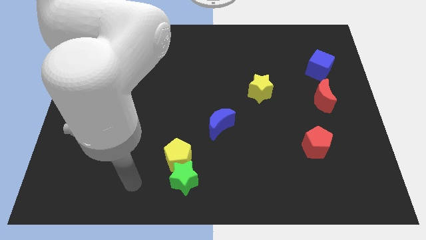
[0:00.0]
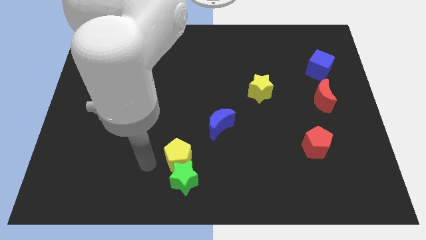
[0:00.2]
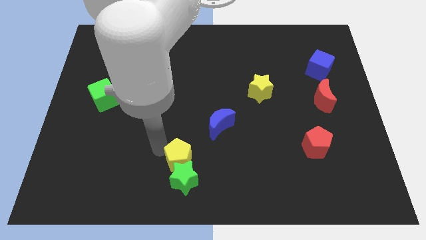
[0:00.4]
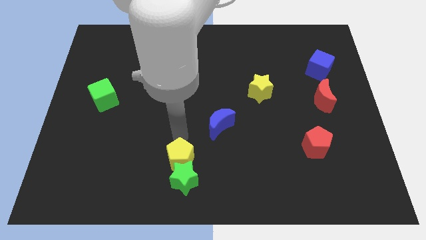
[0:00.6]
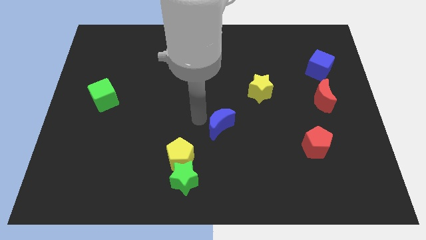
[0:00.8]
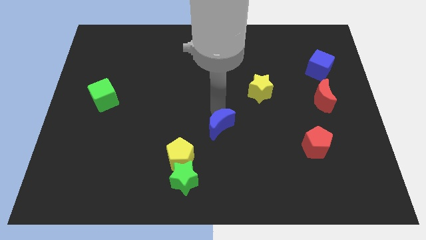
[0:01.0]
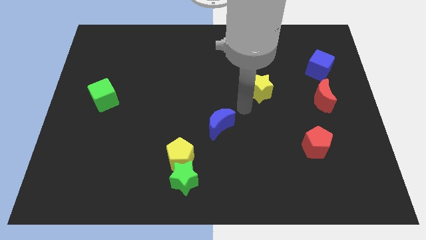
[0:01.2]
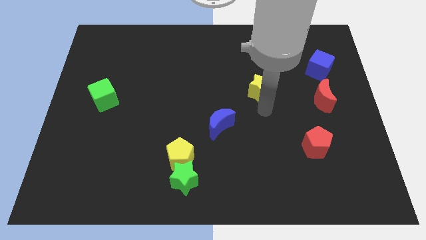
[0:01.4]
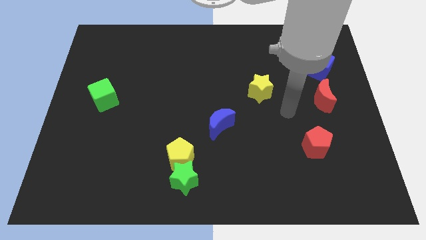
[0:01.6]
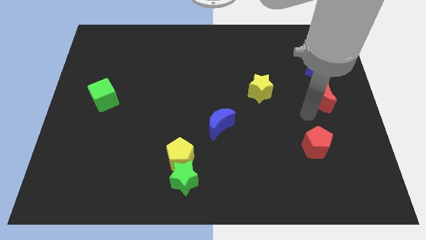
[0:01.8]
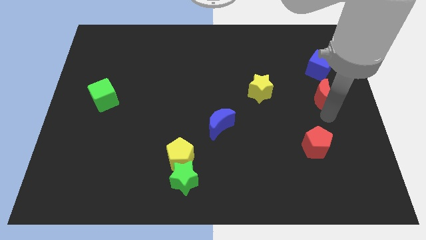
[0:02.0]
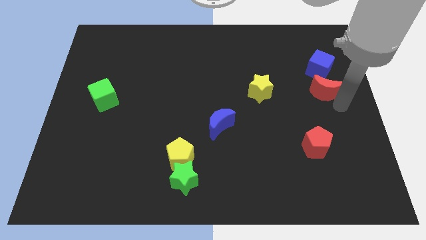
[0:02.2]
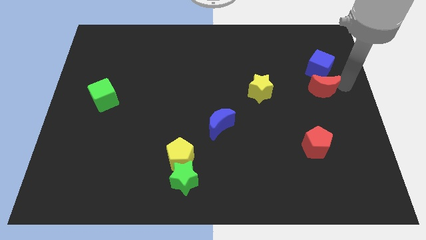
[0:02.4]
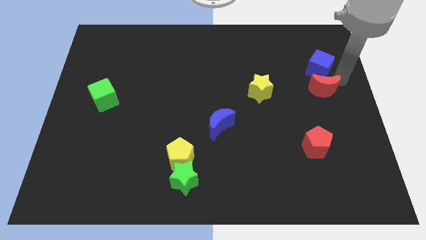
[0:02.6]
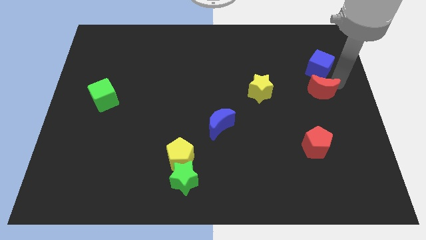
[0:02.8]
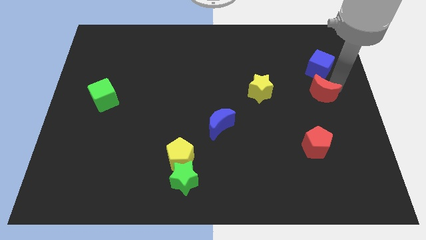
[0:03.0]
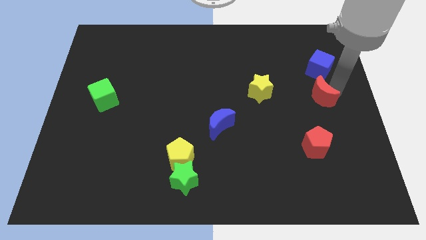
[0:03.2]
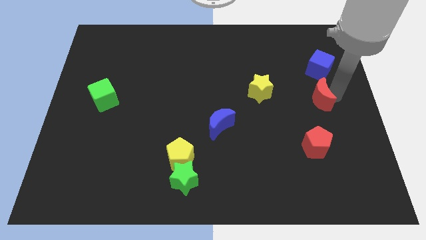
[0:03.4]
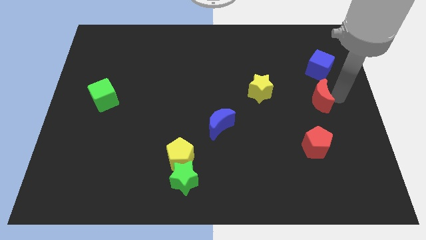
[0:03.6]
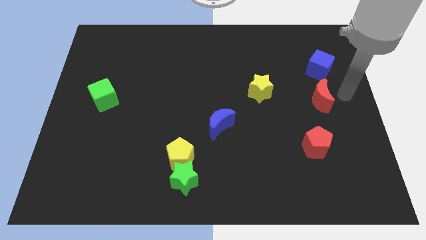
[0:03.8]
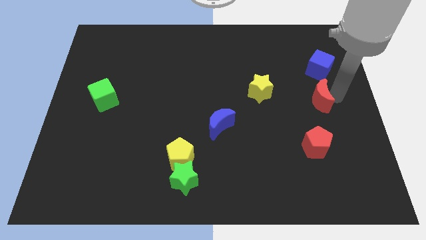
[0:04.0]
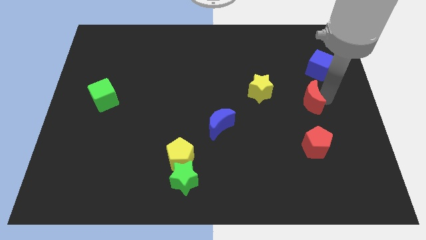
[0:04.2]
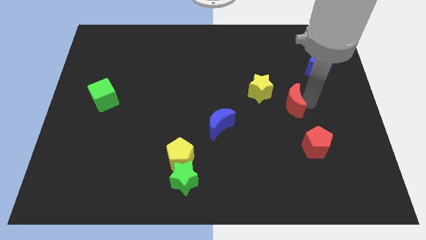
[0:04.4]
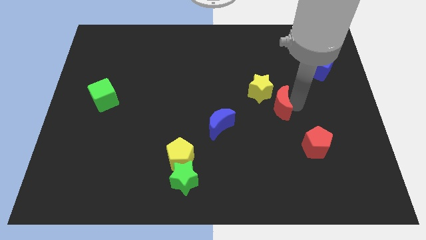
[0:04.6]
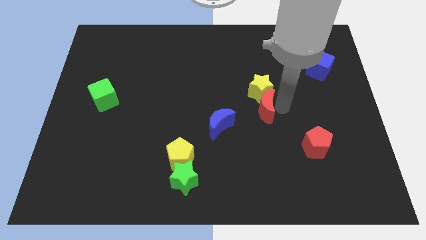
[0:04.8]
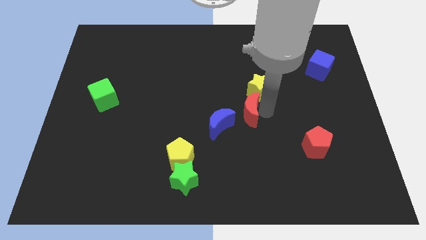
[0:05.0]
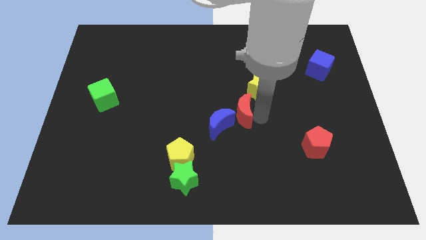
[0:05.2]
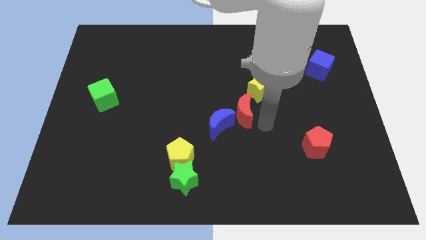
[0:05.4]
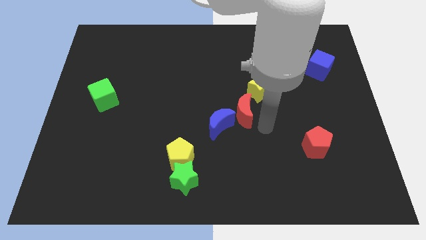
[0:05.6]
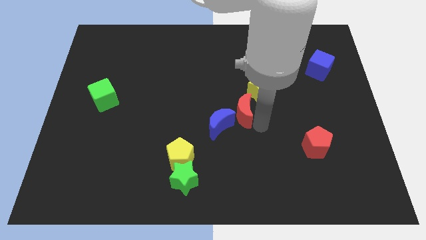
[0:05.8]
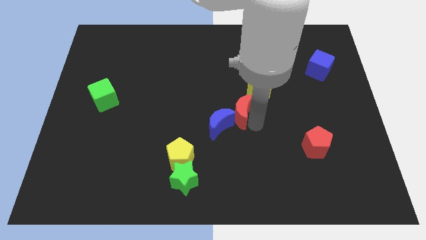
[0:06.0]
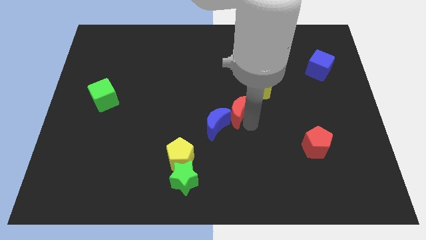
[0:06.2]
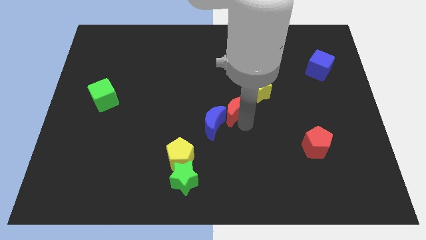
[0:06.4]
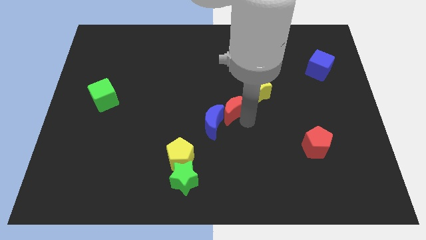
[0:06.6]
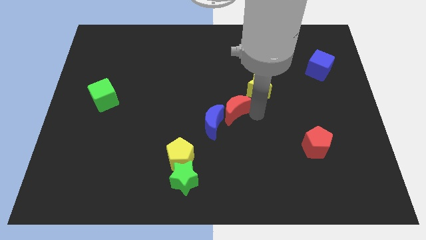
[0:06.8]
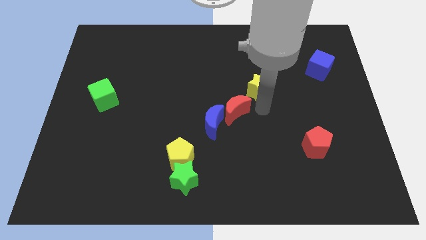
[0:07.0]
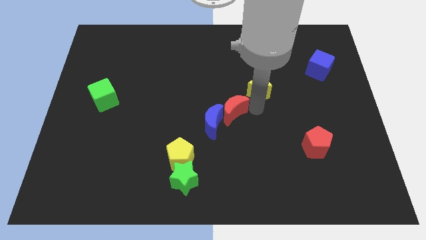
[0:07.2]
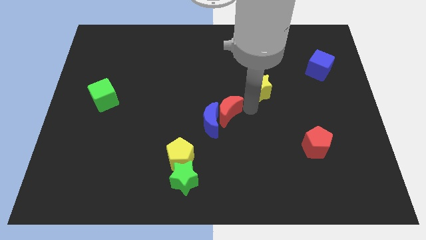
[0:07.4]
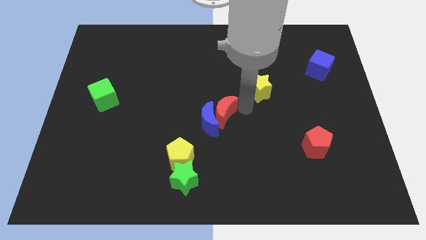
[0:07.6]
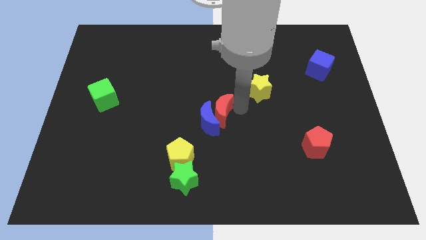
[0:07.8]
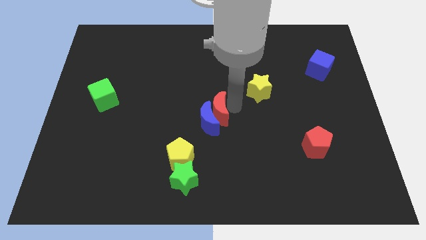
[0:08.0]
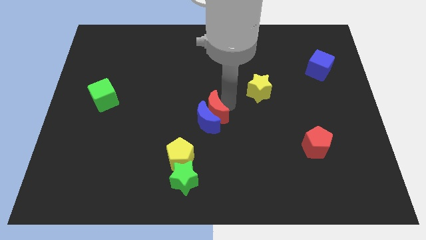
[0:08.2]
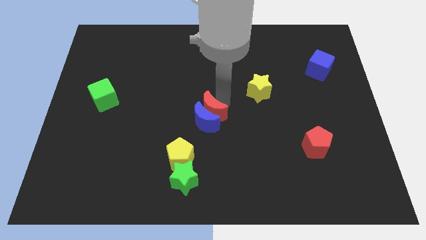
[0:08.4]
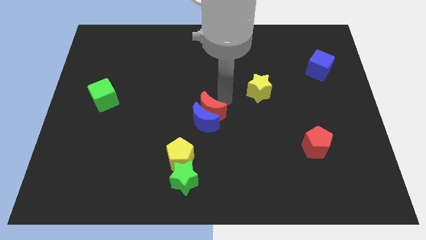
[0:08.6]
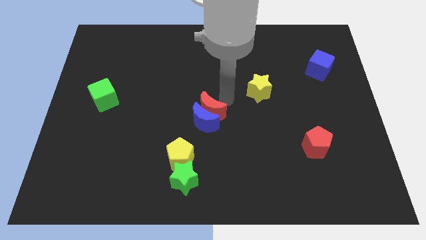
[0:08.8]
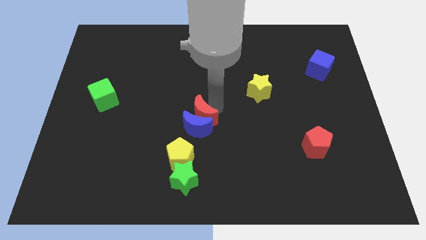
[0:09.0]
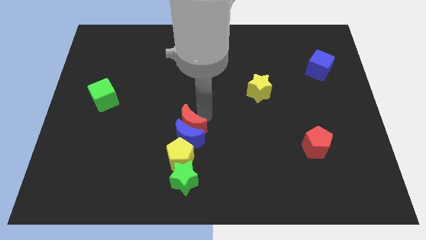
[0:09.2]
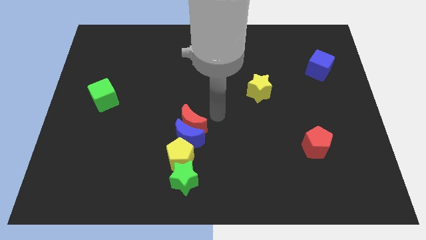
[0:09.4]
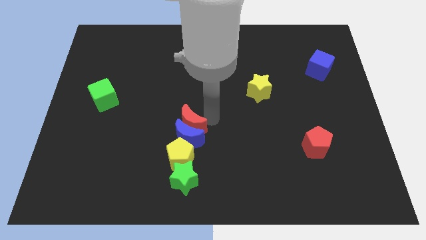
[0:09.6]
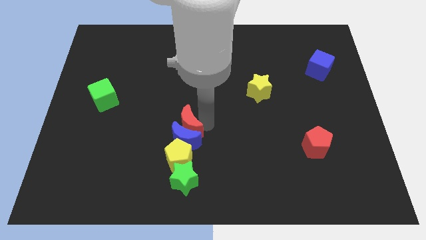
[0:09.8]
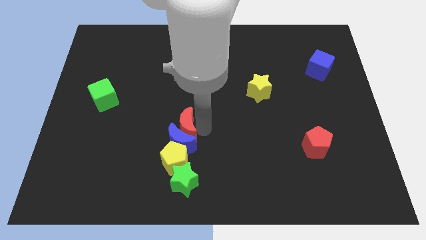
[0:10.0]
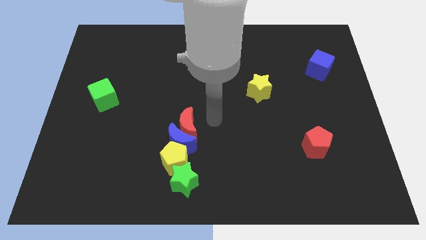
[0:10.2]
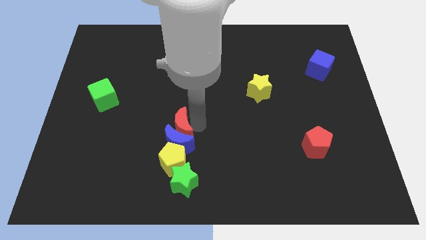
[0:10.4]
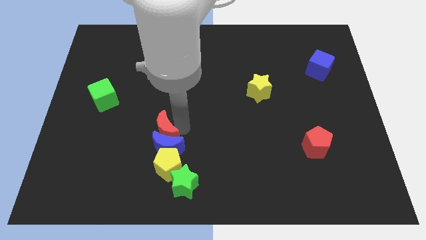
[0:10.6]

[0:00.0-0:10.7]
put the red moon diagonally up and to the left of the yellow pentagon

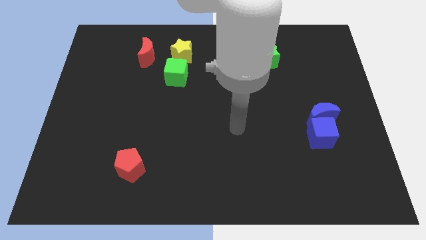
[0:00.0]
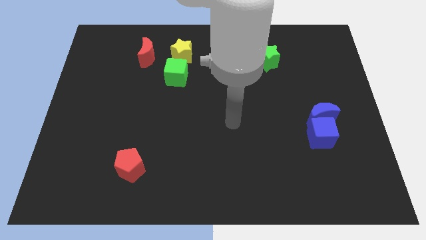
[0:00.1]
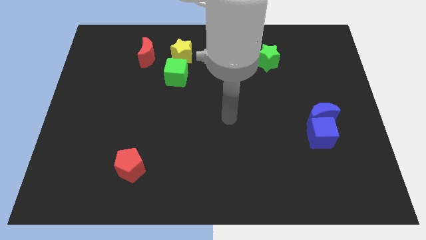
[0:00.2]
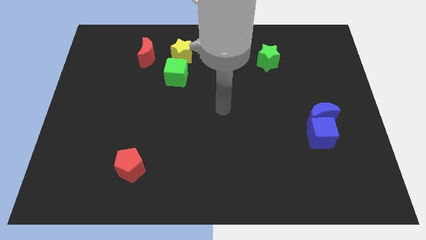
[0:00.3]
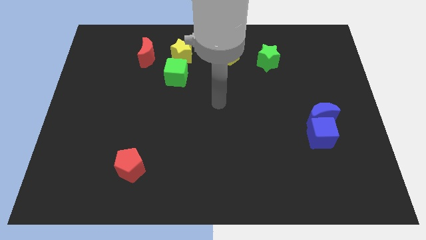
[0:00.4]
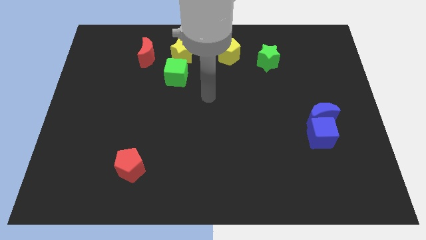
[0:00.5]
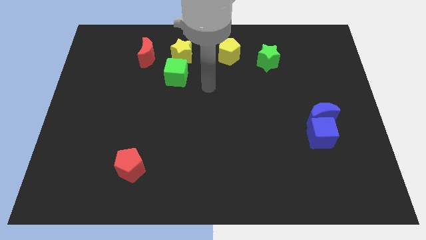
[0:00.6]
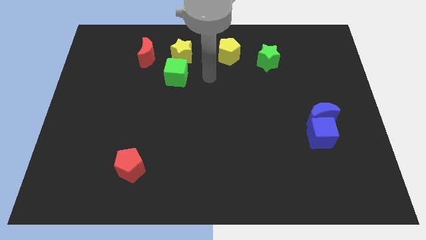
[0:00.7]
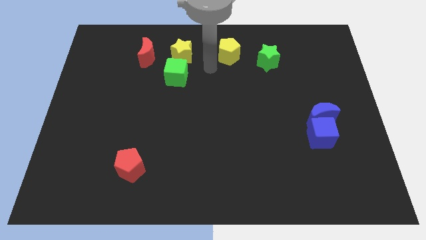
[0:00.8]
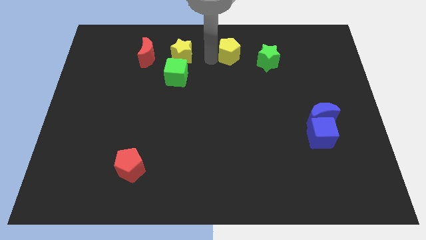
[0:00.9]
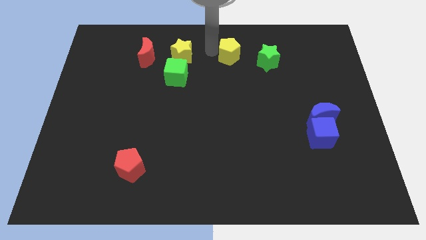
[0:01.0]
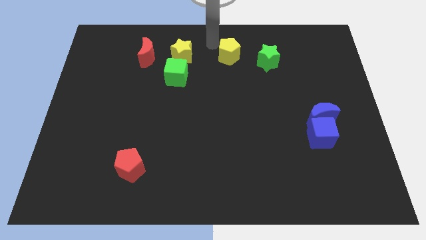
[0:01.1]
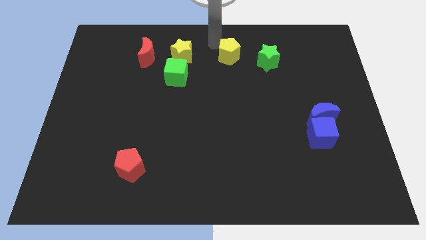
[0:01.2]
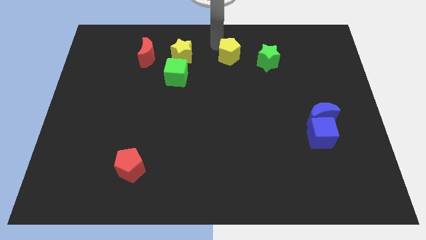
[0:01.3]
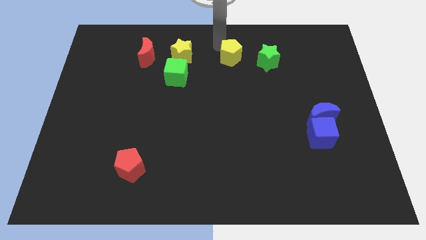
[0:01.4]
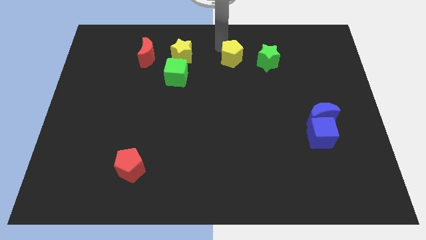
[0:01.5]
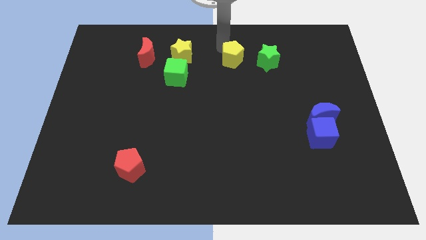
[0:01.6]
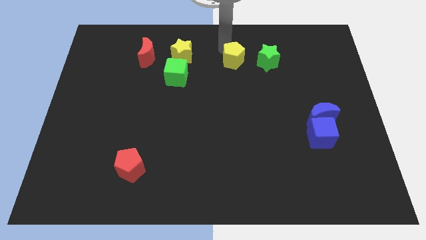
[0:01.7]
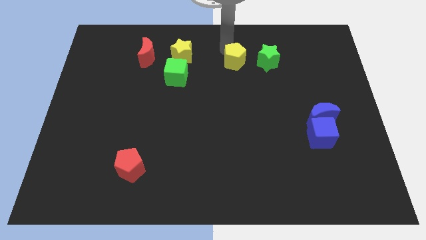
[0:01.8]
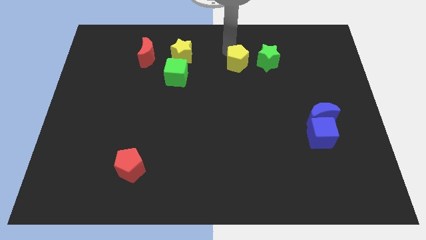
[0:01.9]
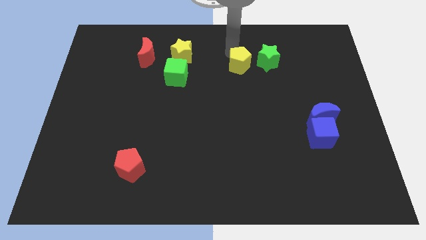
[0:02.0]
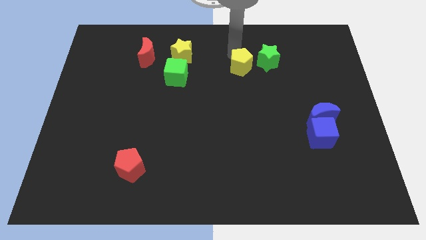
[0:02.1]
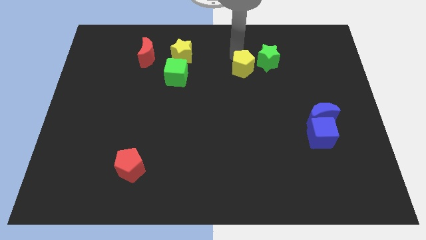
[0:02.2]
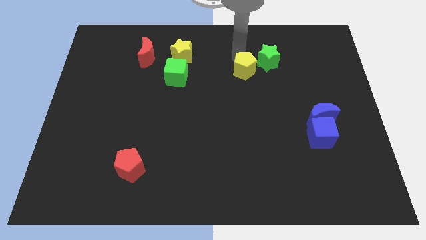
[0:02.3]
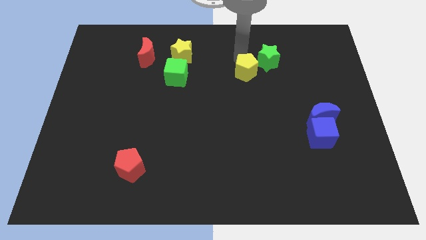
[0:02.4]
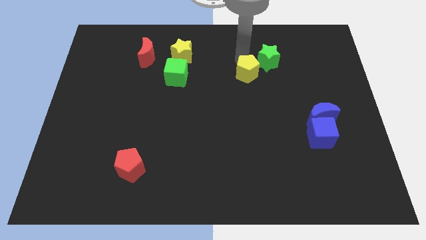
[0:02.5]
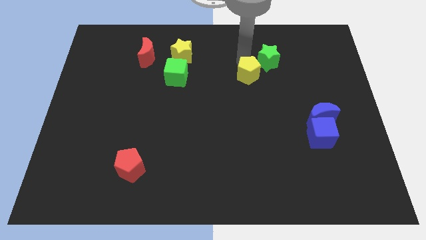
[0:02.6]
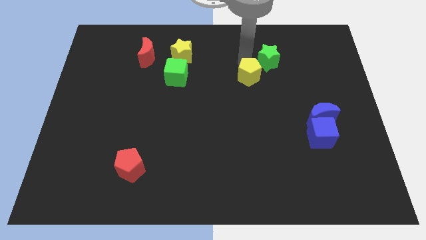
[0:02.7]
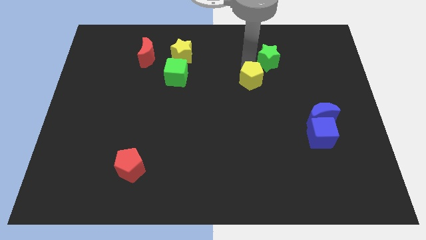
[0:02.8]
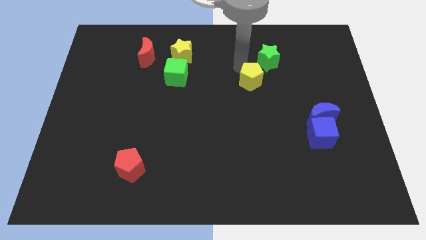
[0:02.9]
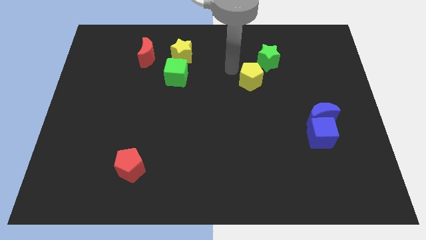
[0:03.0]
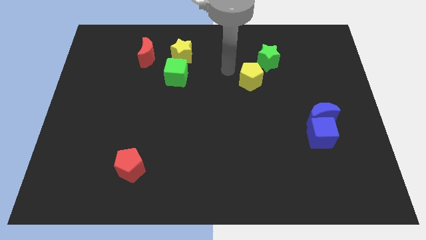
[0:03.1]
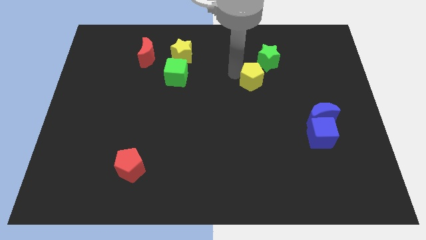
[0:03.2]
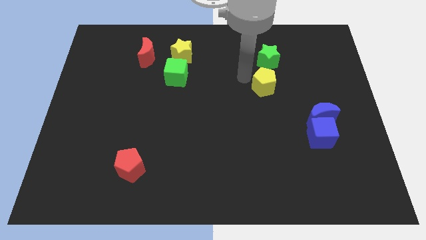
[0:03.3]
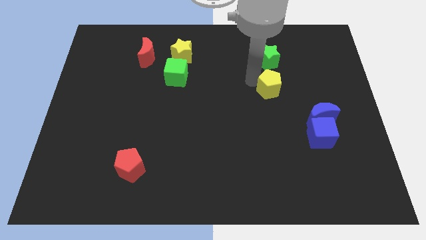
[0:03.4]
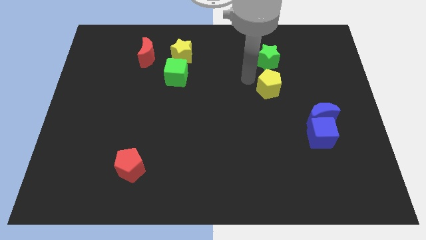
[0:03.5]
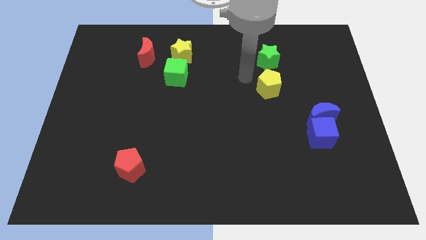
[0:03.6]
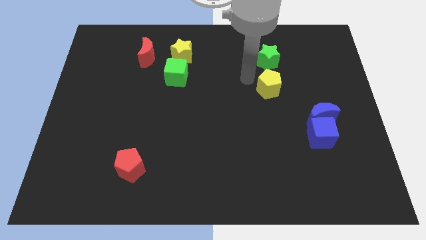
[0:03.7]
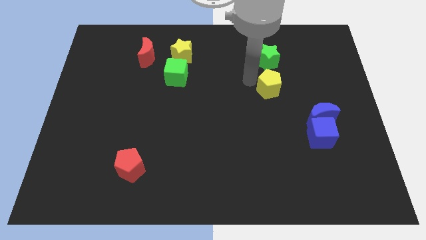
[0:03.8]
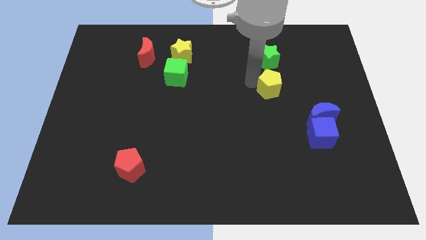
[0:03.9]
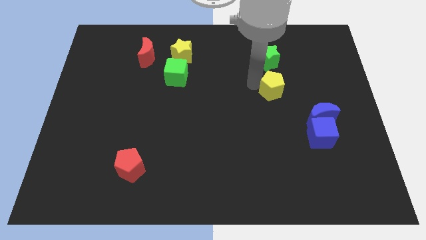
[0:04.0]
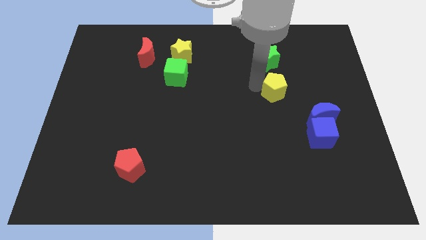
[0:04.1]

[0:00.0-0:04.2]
push the yellow pentagon to the top left of the blue moon
